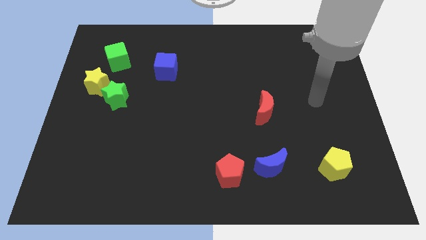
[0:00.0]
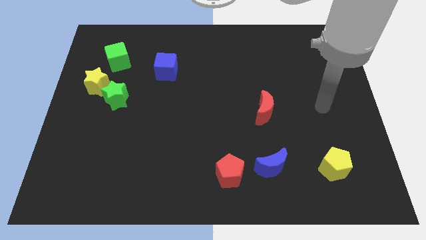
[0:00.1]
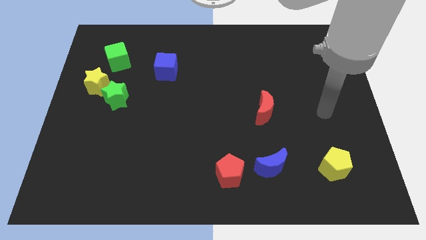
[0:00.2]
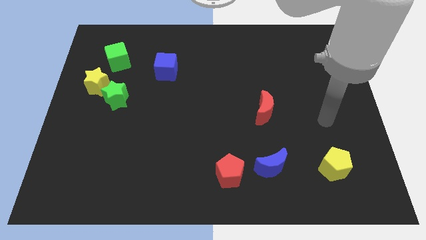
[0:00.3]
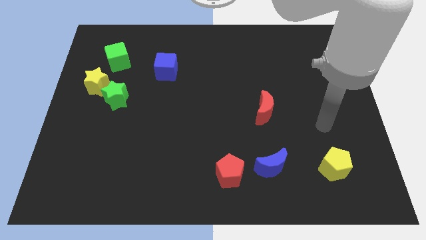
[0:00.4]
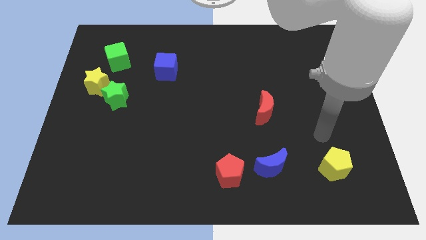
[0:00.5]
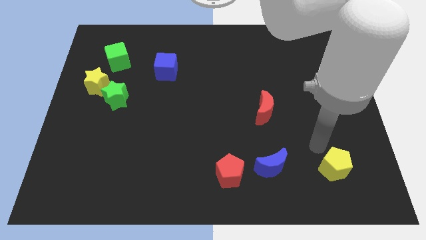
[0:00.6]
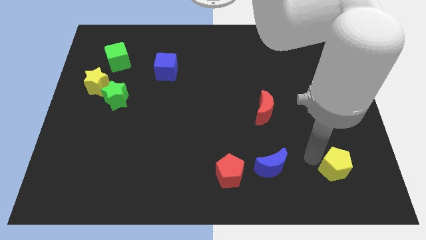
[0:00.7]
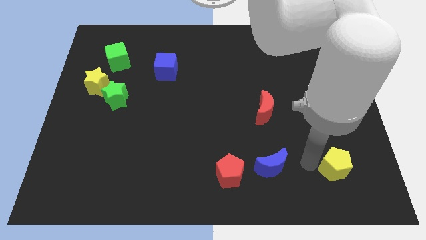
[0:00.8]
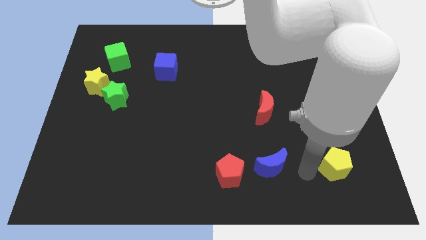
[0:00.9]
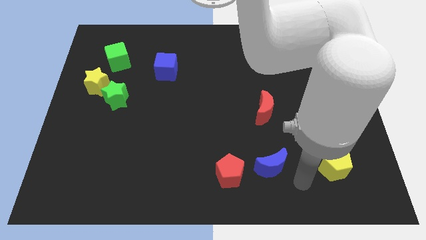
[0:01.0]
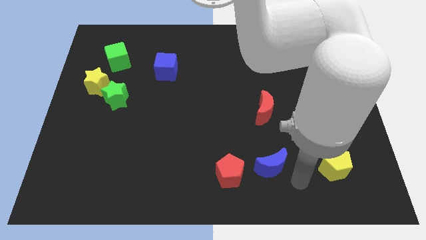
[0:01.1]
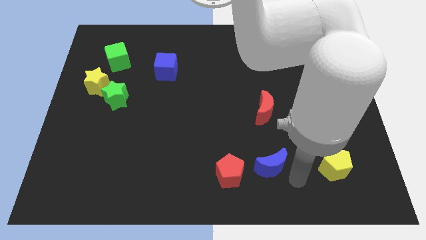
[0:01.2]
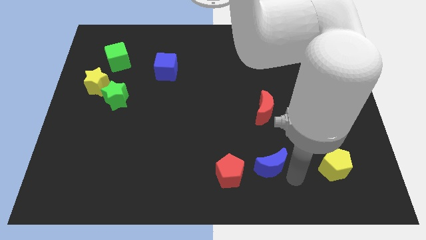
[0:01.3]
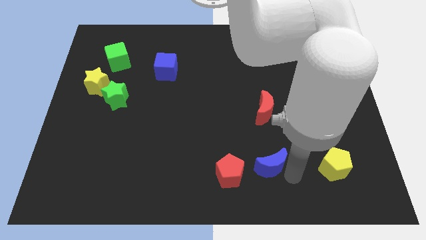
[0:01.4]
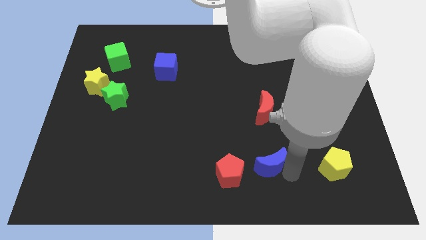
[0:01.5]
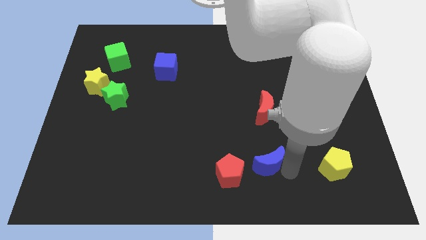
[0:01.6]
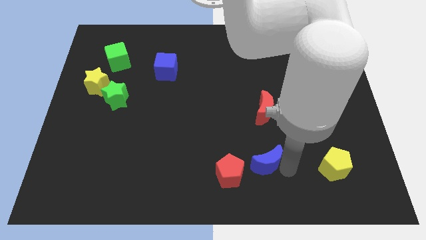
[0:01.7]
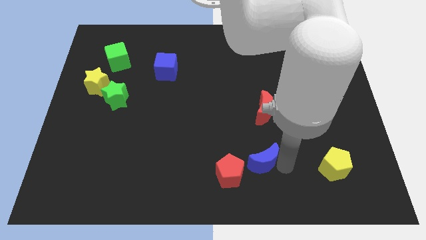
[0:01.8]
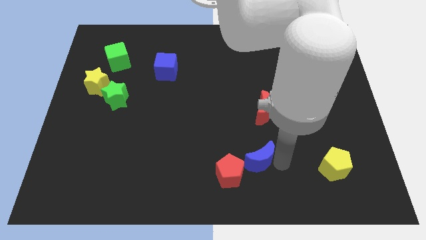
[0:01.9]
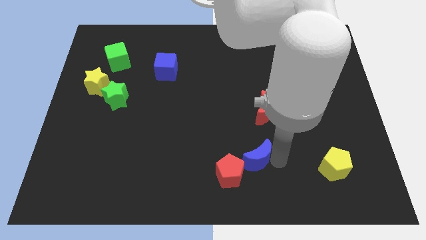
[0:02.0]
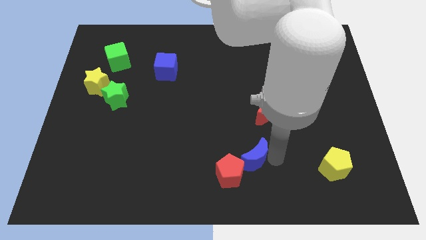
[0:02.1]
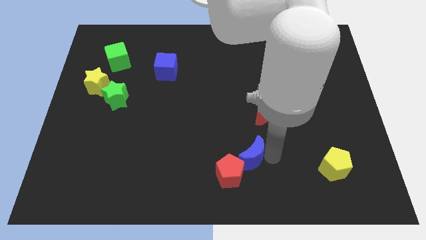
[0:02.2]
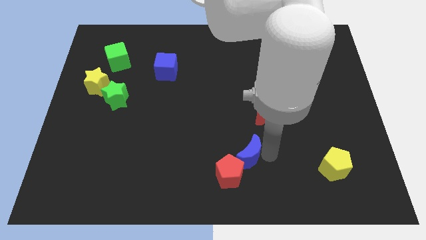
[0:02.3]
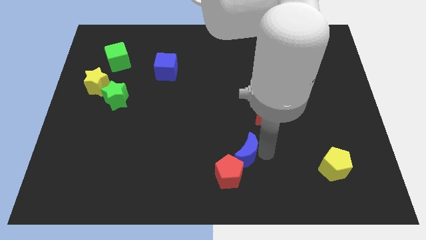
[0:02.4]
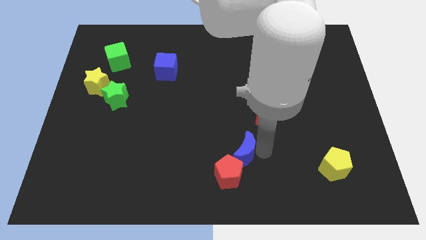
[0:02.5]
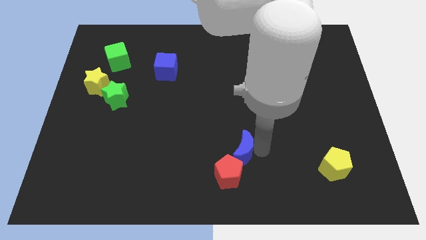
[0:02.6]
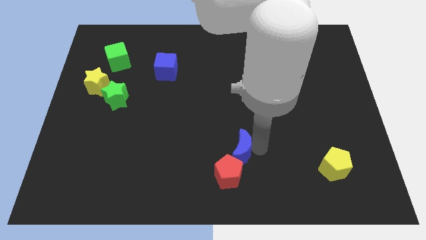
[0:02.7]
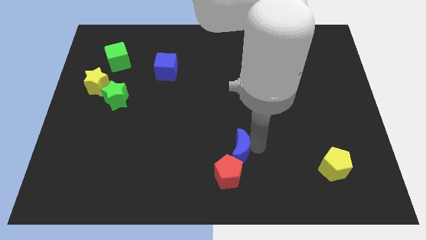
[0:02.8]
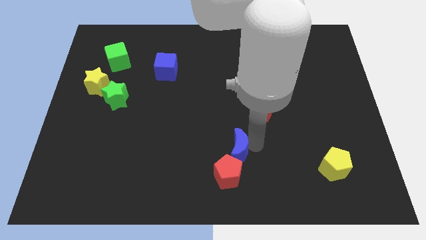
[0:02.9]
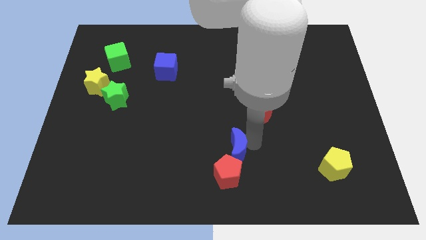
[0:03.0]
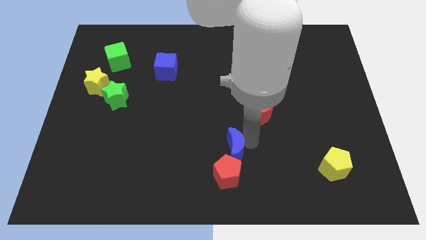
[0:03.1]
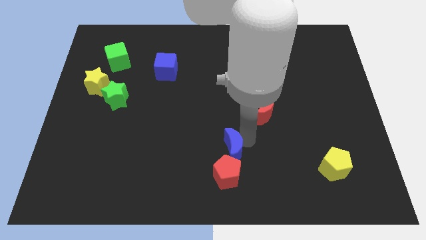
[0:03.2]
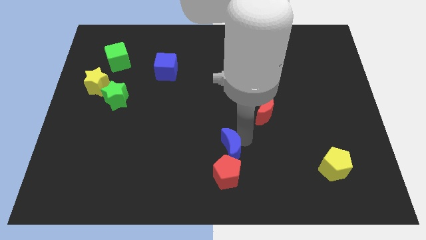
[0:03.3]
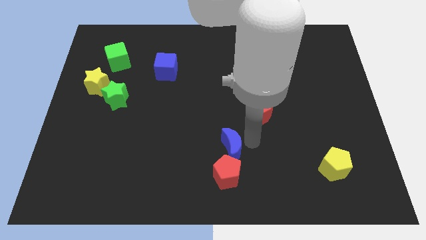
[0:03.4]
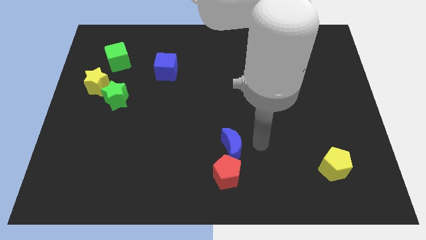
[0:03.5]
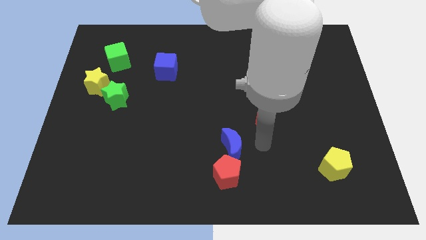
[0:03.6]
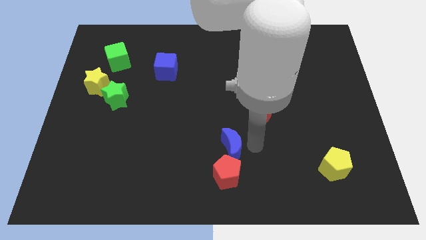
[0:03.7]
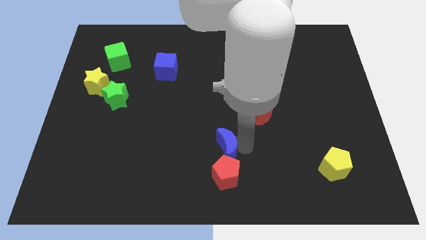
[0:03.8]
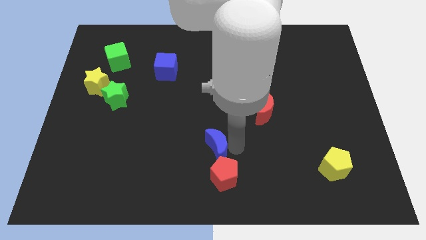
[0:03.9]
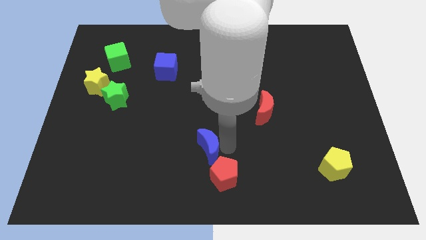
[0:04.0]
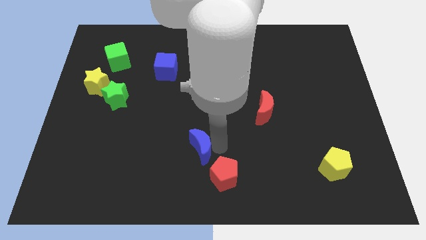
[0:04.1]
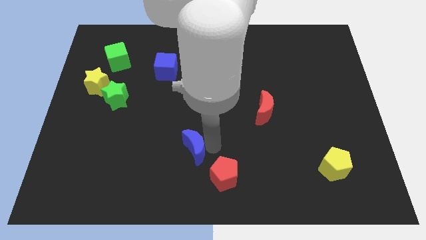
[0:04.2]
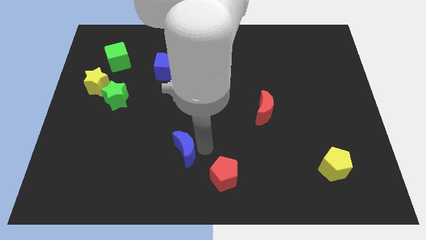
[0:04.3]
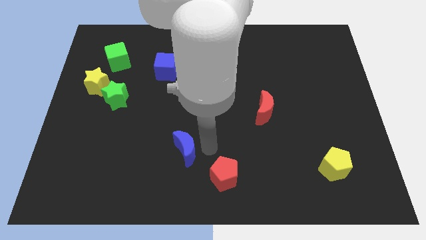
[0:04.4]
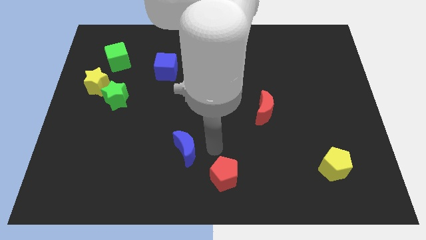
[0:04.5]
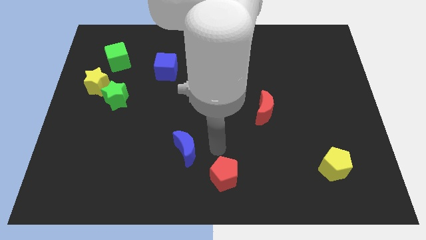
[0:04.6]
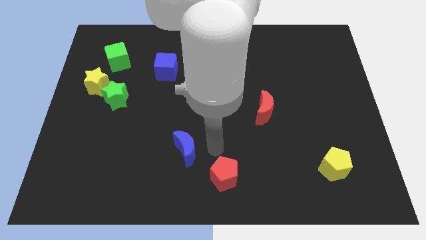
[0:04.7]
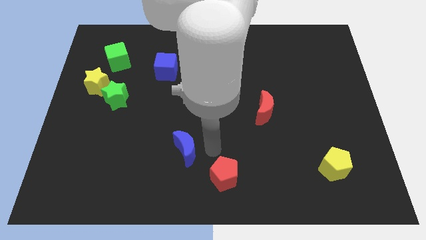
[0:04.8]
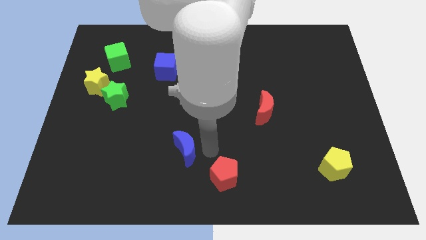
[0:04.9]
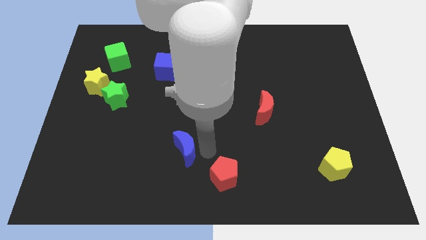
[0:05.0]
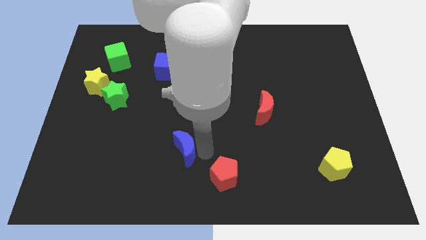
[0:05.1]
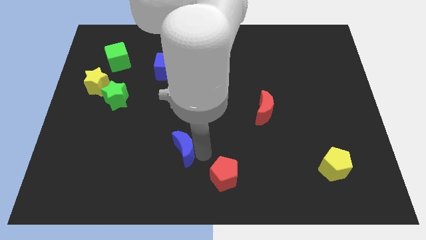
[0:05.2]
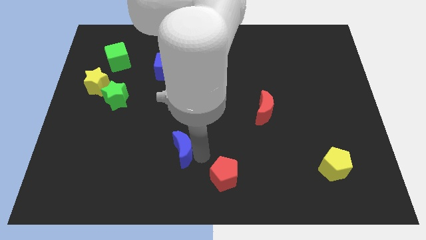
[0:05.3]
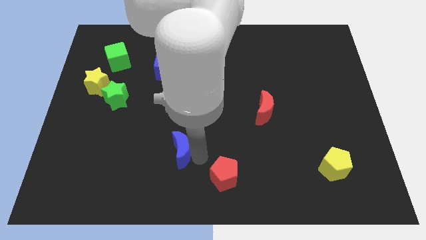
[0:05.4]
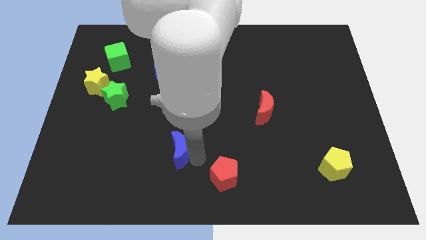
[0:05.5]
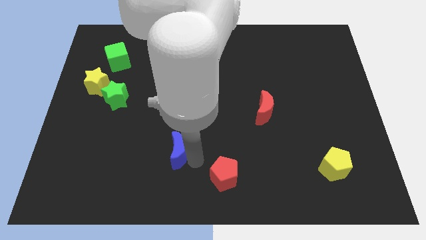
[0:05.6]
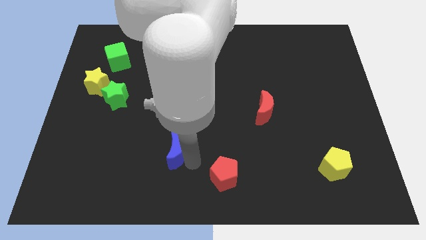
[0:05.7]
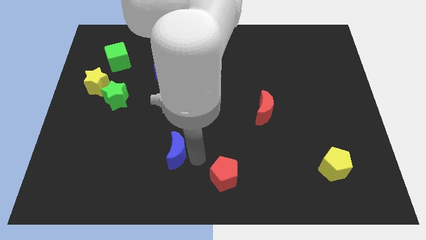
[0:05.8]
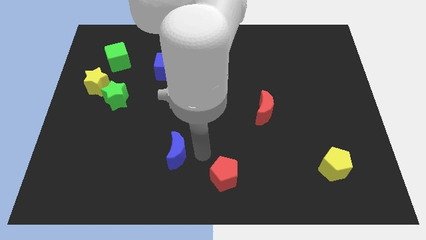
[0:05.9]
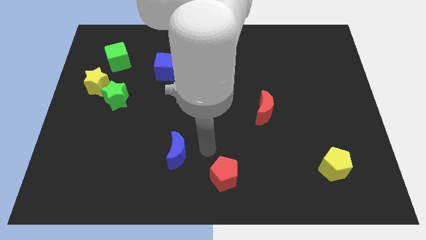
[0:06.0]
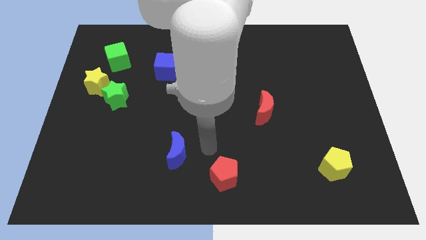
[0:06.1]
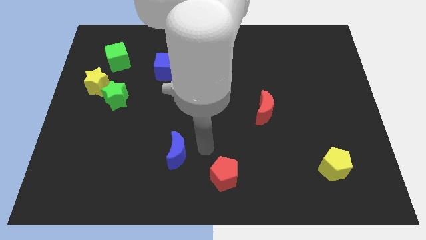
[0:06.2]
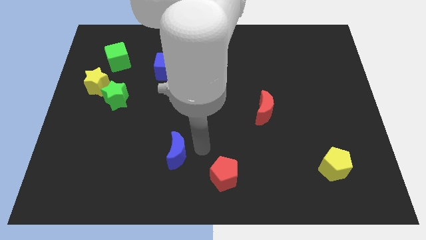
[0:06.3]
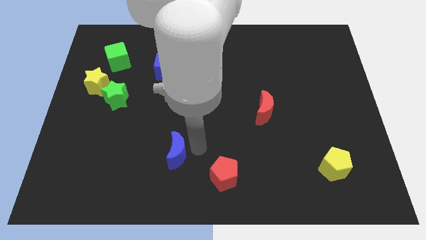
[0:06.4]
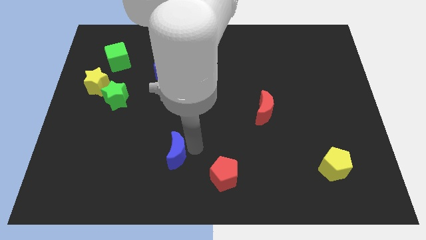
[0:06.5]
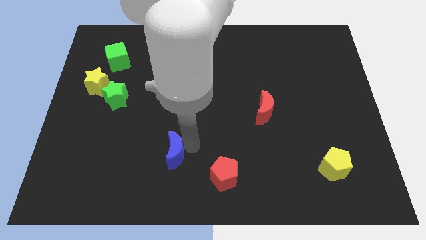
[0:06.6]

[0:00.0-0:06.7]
move the blue moon to the left

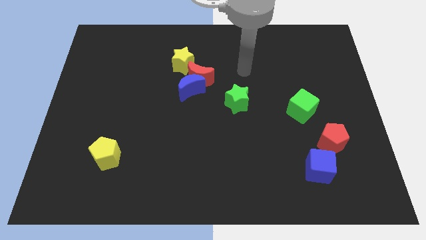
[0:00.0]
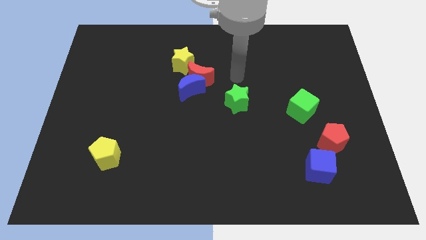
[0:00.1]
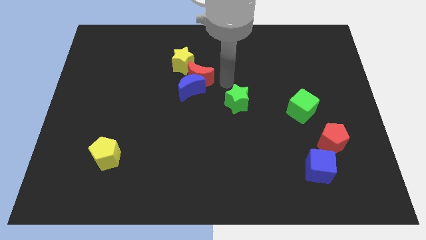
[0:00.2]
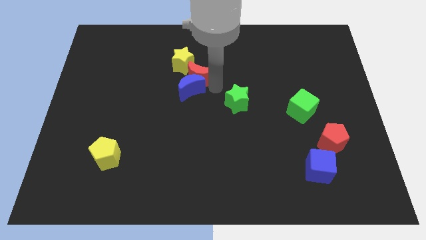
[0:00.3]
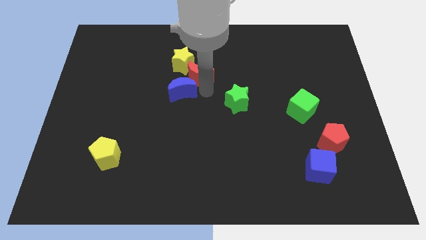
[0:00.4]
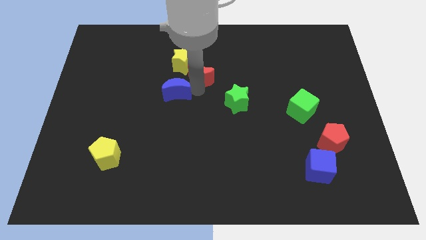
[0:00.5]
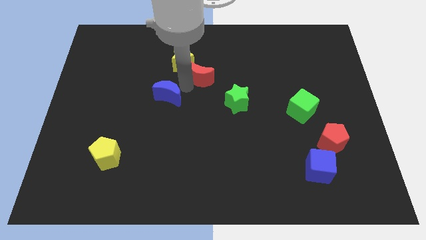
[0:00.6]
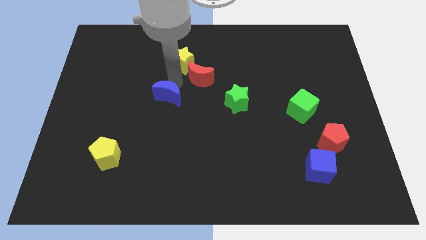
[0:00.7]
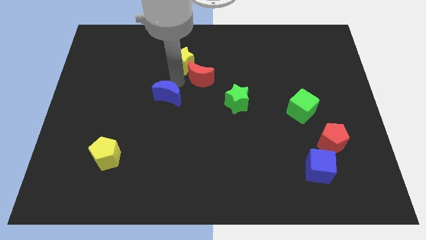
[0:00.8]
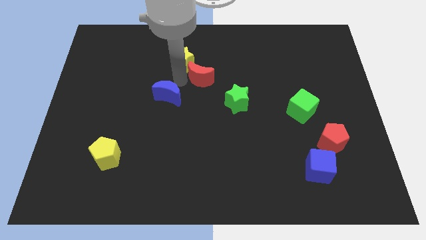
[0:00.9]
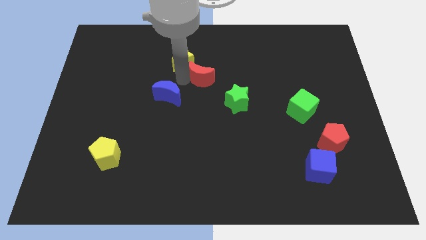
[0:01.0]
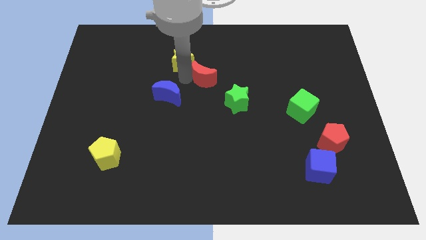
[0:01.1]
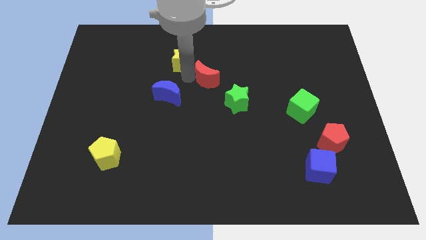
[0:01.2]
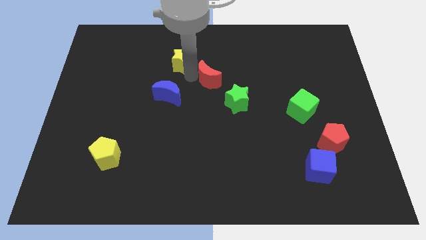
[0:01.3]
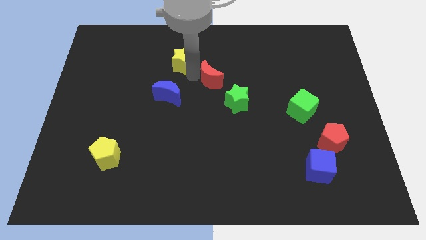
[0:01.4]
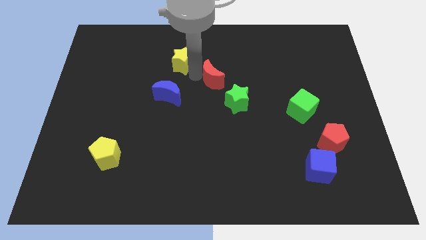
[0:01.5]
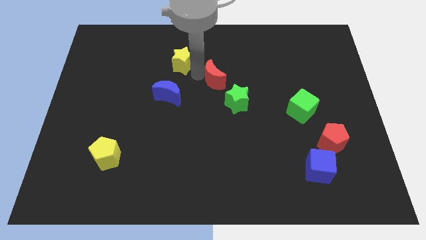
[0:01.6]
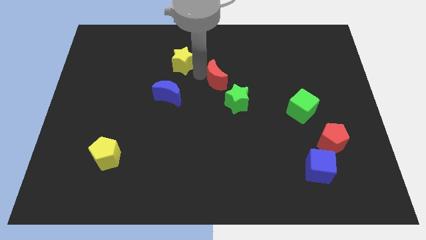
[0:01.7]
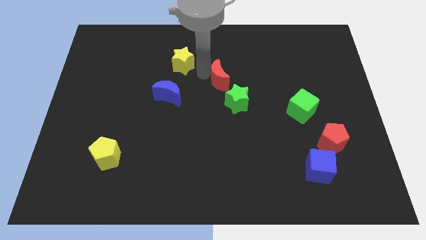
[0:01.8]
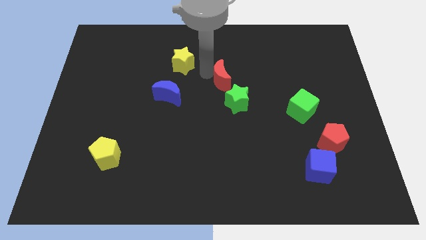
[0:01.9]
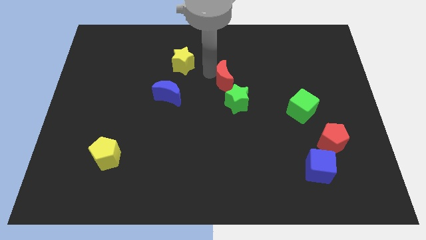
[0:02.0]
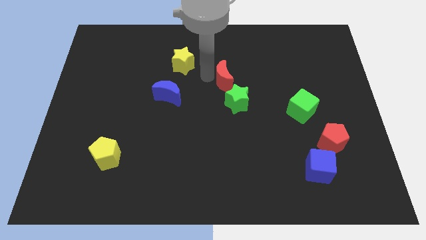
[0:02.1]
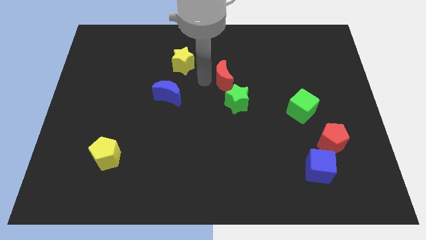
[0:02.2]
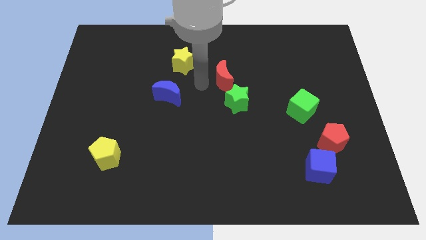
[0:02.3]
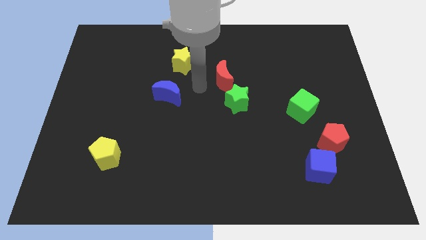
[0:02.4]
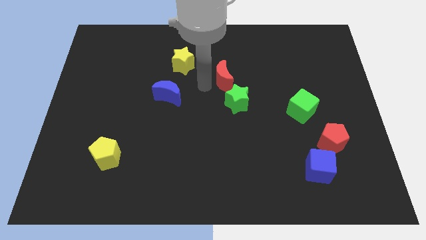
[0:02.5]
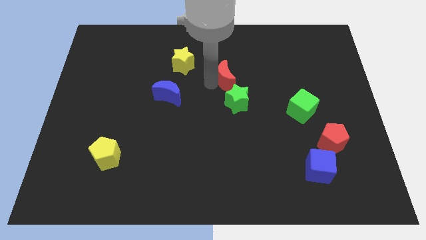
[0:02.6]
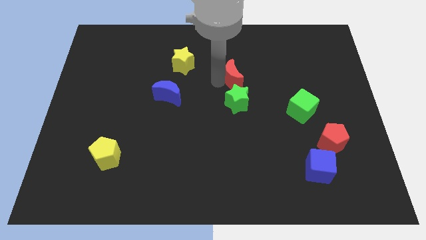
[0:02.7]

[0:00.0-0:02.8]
push the red moon right a little bit
